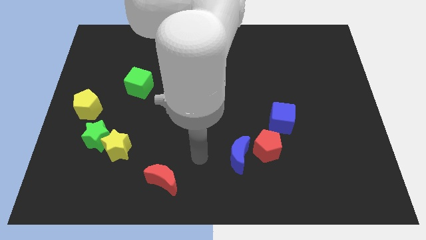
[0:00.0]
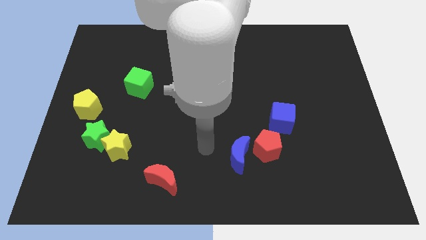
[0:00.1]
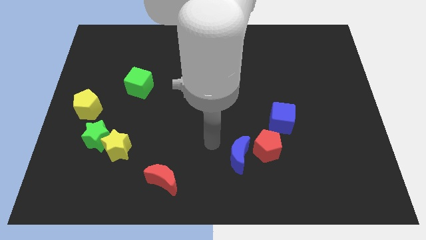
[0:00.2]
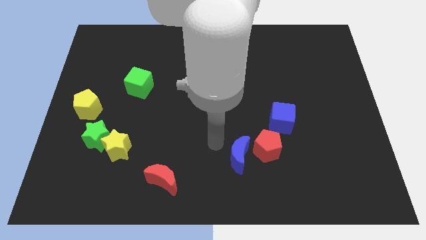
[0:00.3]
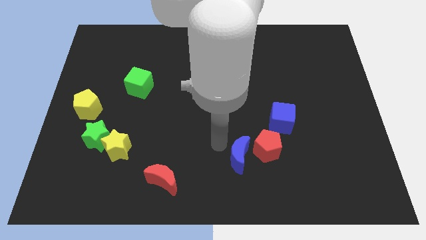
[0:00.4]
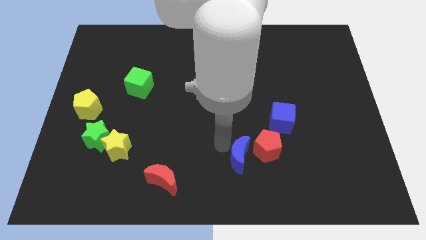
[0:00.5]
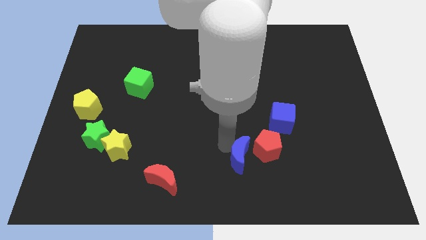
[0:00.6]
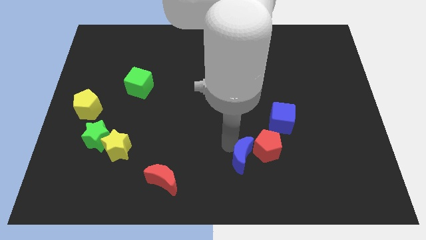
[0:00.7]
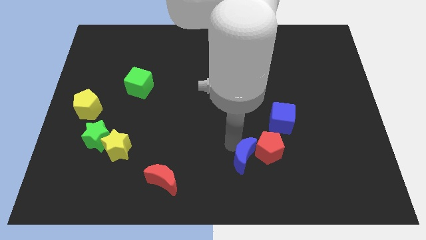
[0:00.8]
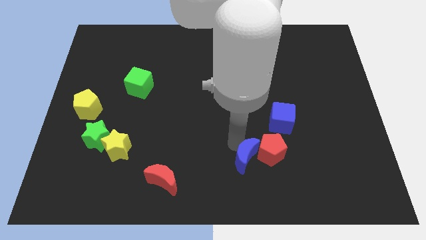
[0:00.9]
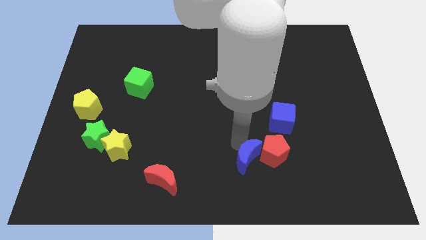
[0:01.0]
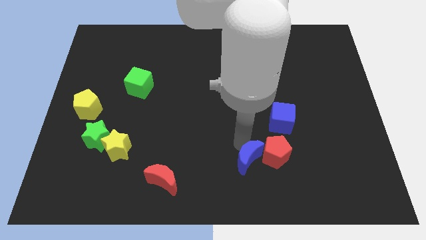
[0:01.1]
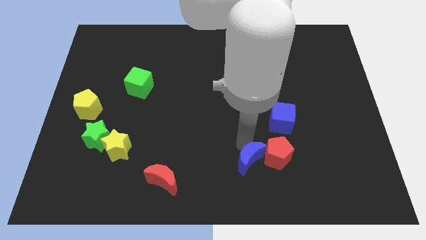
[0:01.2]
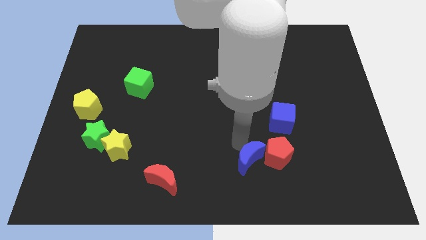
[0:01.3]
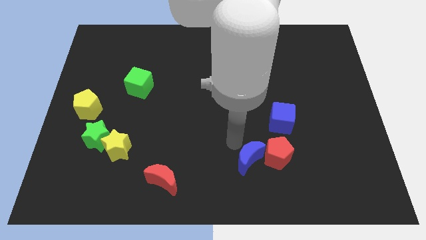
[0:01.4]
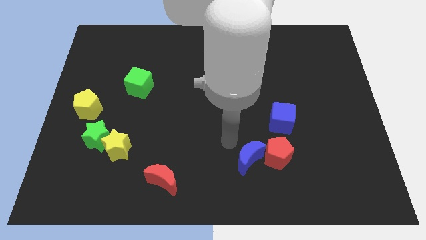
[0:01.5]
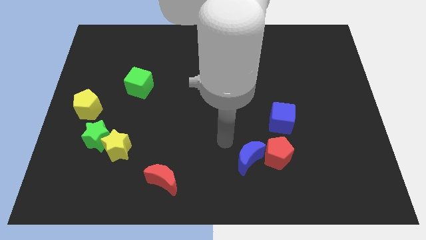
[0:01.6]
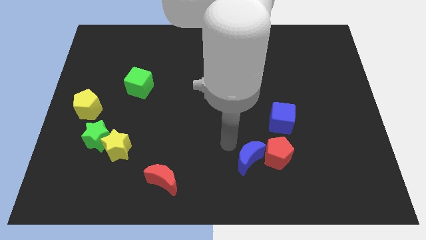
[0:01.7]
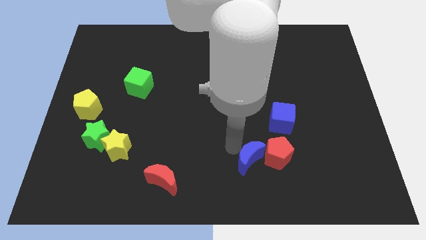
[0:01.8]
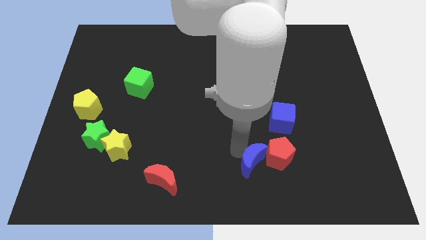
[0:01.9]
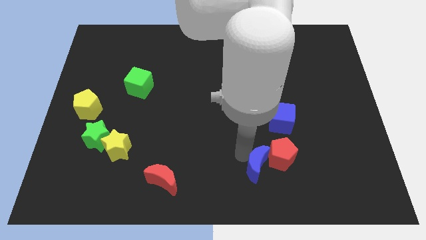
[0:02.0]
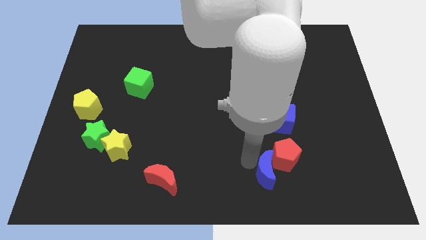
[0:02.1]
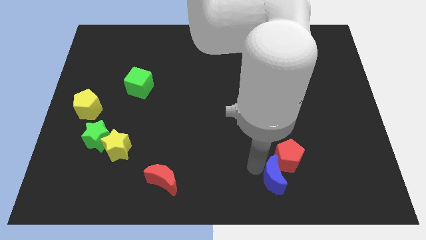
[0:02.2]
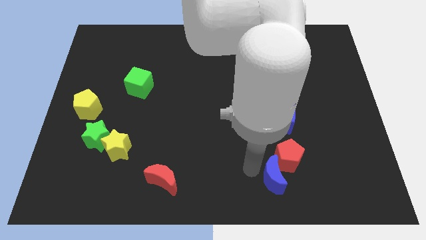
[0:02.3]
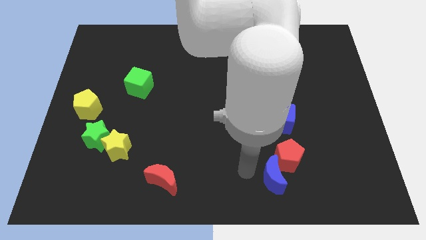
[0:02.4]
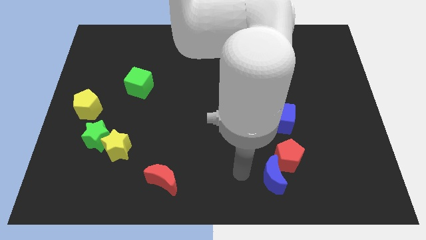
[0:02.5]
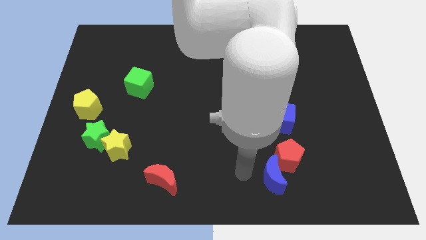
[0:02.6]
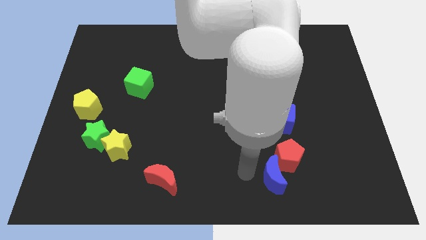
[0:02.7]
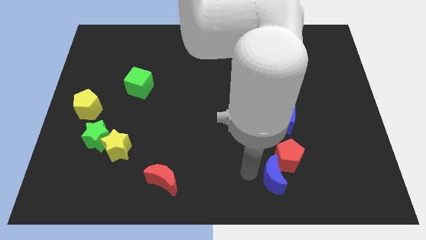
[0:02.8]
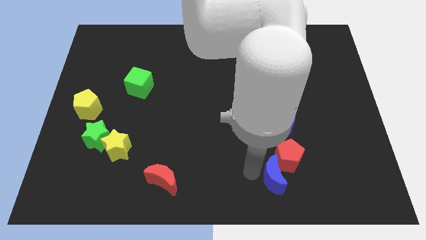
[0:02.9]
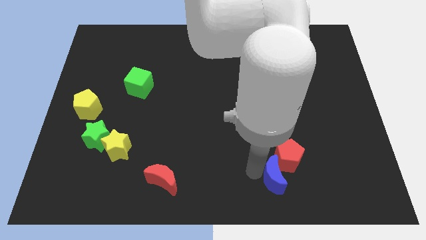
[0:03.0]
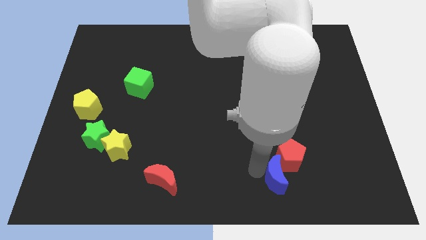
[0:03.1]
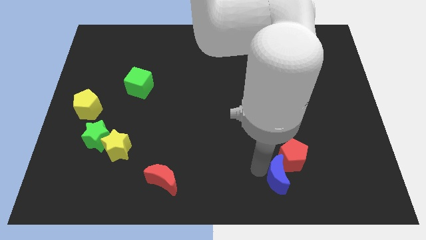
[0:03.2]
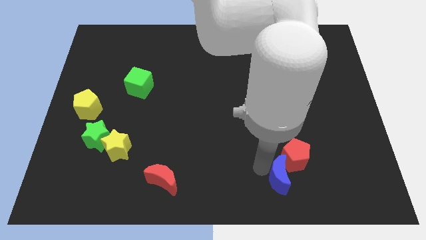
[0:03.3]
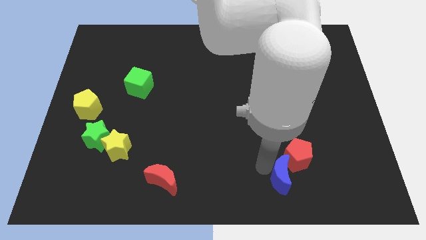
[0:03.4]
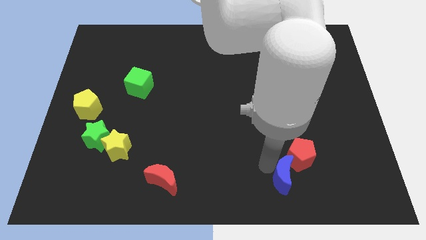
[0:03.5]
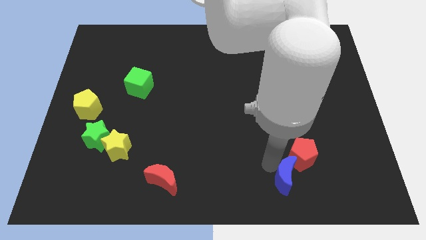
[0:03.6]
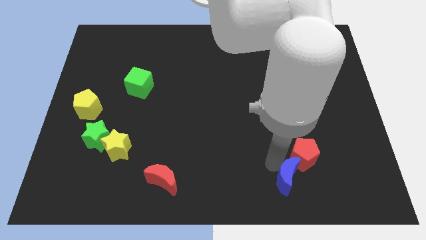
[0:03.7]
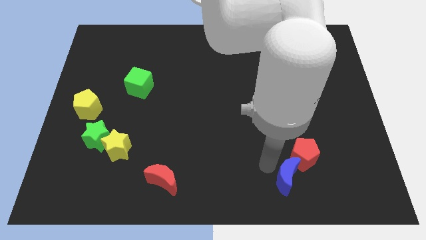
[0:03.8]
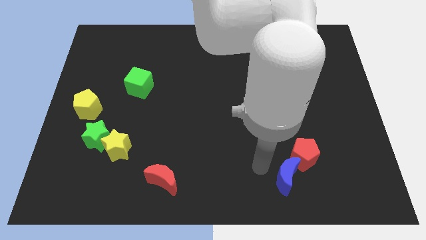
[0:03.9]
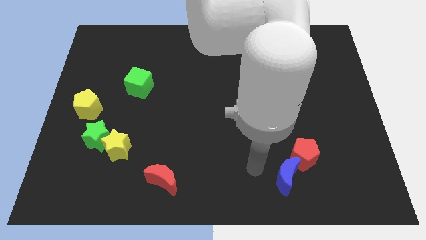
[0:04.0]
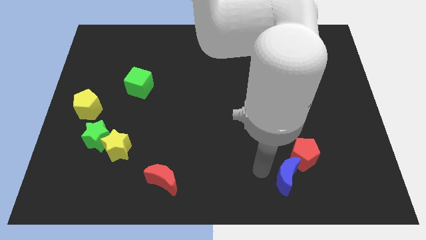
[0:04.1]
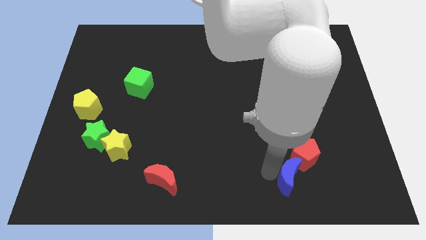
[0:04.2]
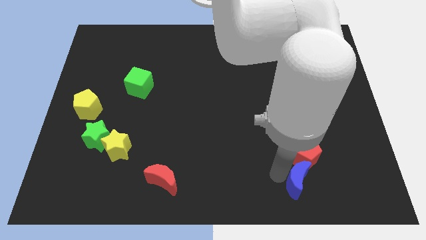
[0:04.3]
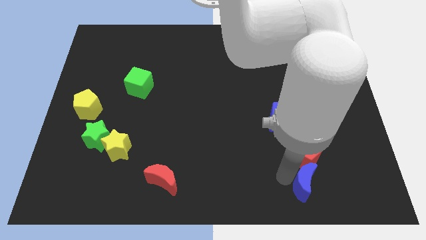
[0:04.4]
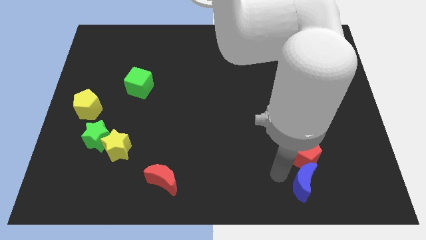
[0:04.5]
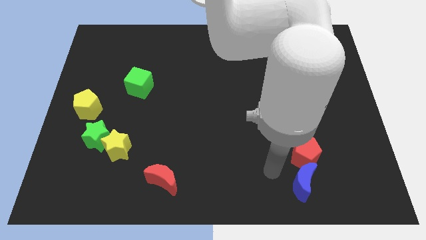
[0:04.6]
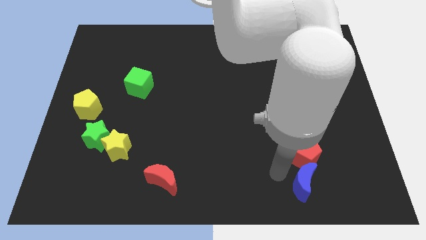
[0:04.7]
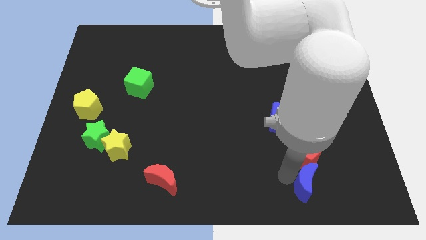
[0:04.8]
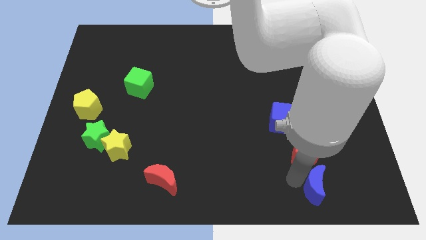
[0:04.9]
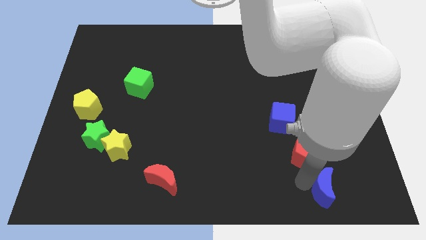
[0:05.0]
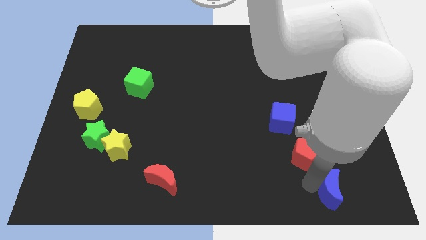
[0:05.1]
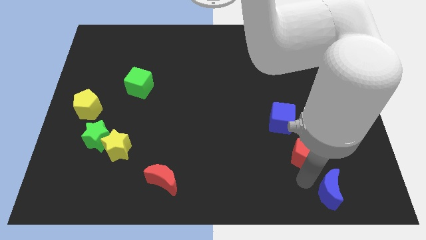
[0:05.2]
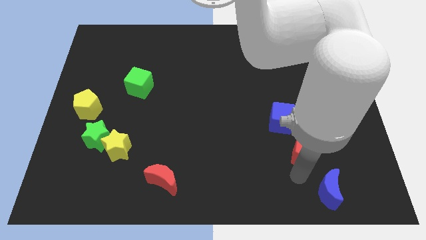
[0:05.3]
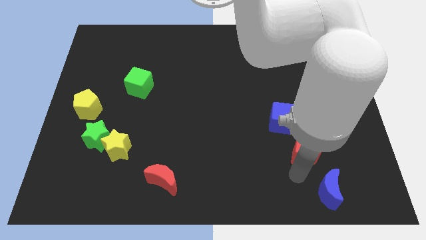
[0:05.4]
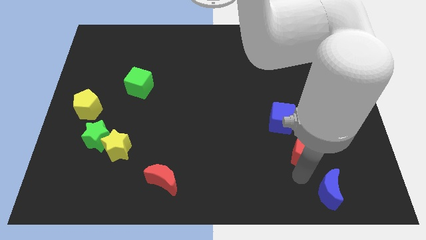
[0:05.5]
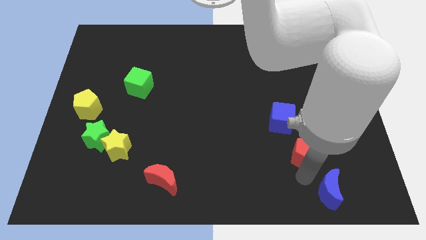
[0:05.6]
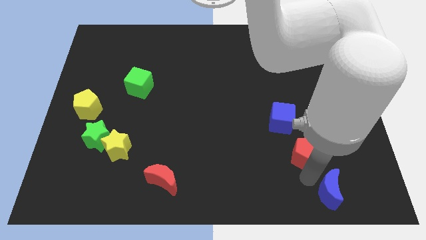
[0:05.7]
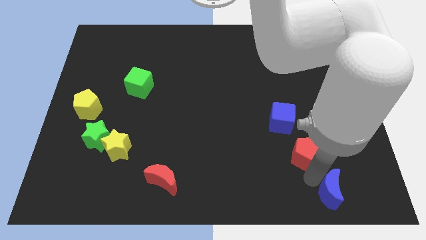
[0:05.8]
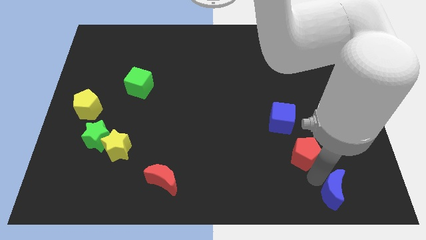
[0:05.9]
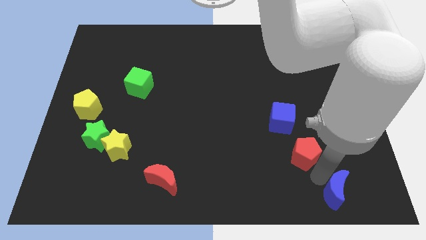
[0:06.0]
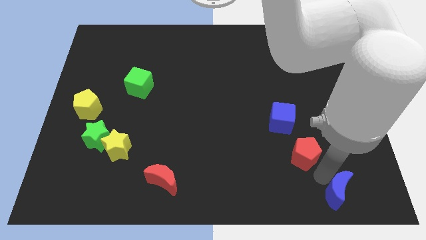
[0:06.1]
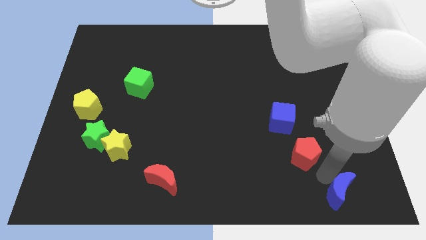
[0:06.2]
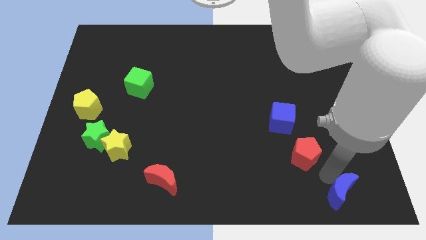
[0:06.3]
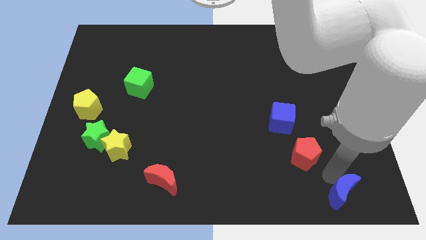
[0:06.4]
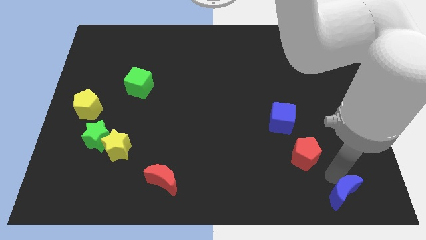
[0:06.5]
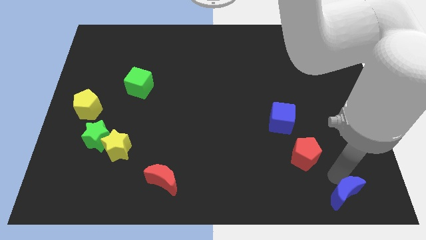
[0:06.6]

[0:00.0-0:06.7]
put the blue moon to the lower right corner

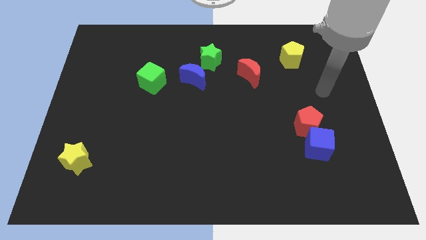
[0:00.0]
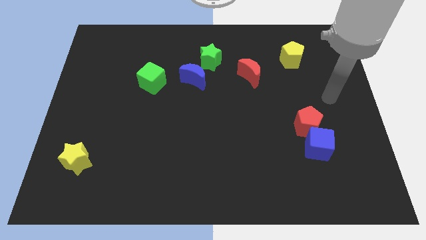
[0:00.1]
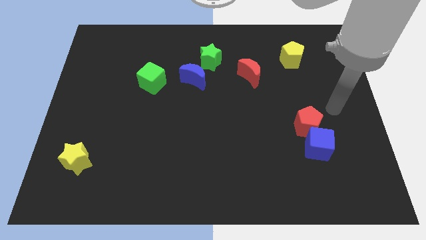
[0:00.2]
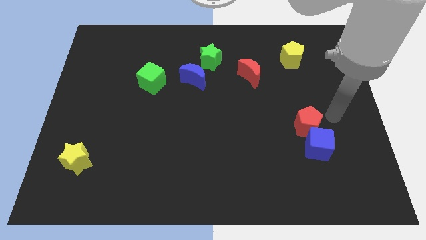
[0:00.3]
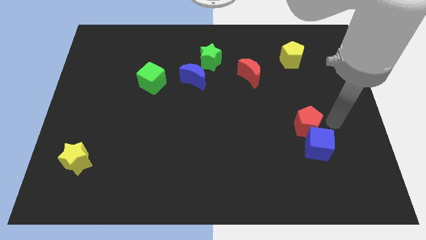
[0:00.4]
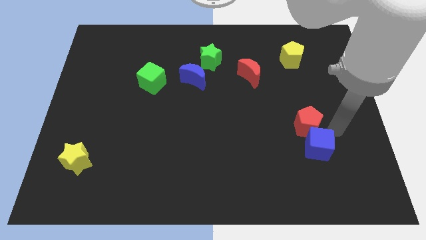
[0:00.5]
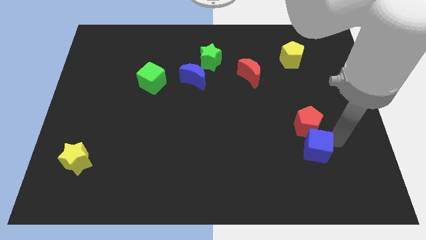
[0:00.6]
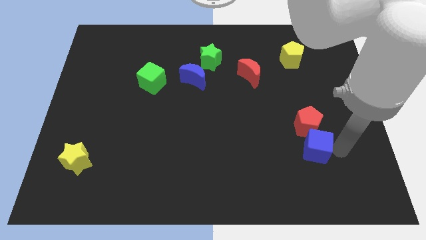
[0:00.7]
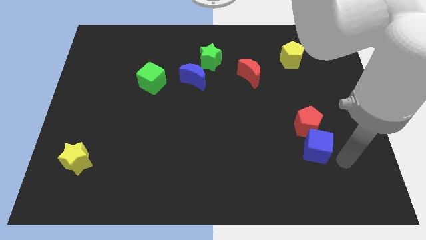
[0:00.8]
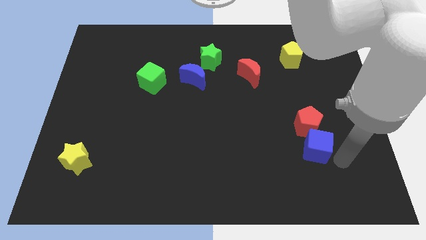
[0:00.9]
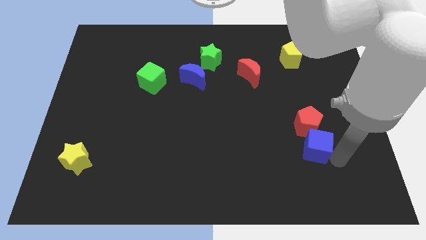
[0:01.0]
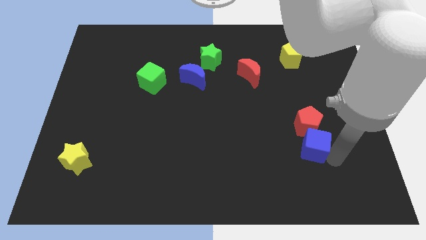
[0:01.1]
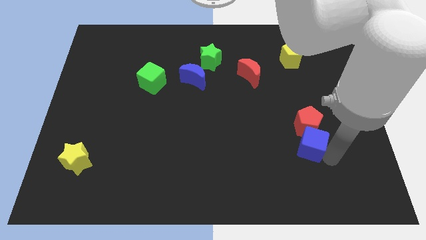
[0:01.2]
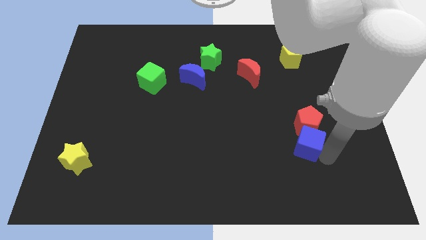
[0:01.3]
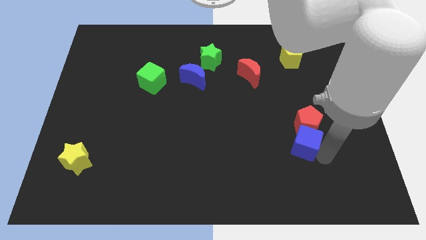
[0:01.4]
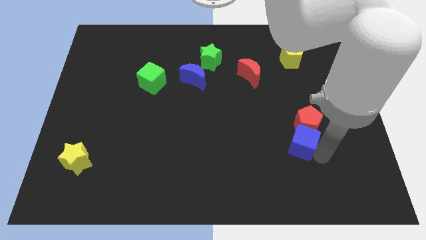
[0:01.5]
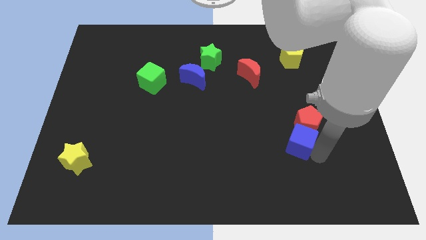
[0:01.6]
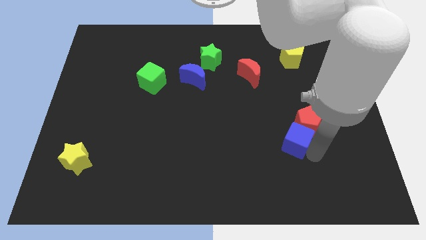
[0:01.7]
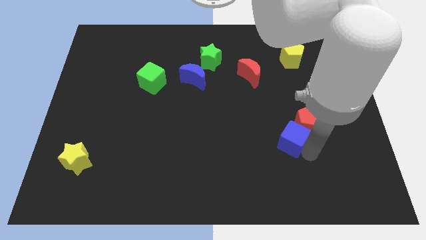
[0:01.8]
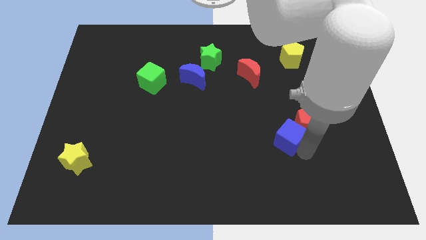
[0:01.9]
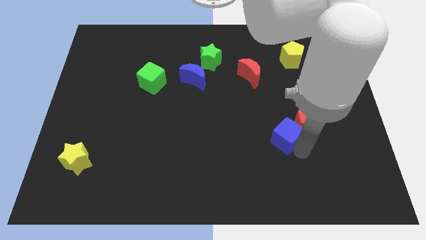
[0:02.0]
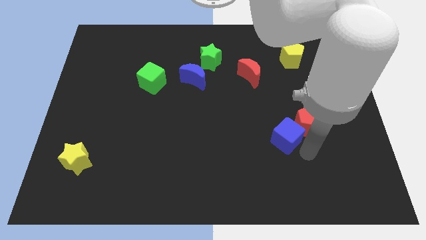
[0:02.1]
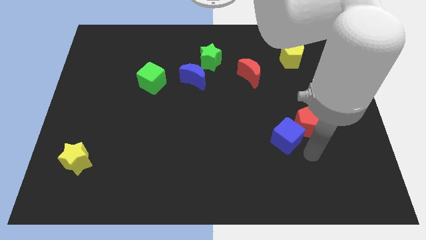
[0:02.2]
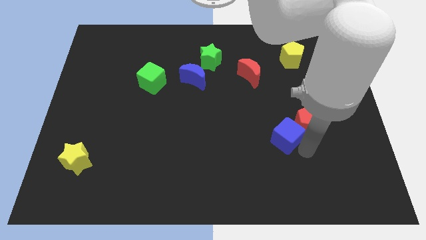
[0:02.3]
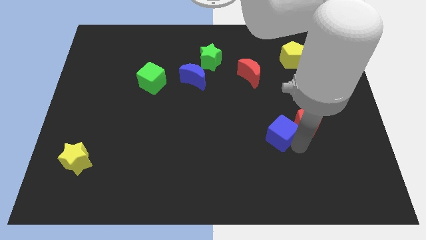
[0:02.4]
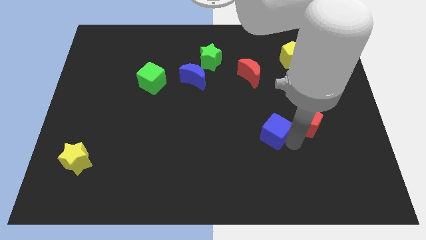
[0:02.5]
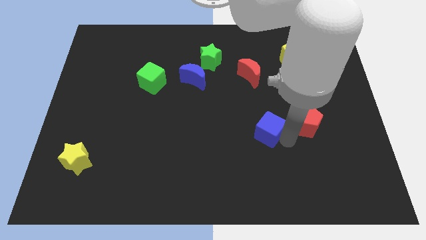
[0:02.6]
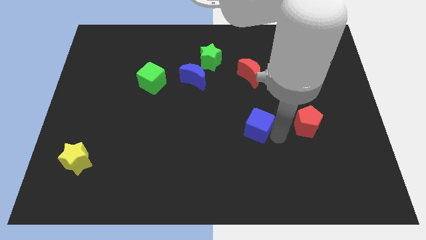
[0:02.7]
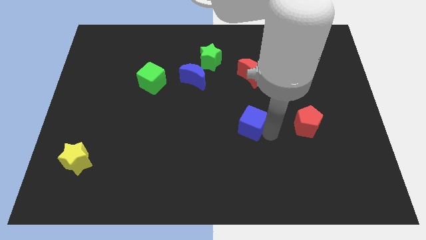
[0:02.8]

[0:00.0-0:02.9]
slide the blue cube to the center
